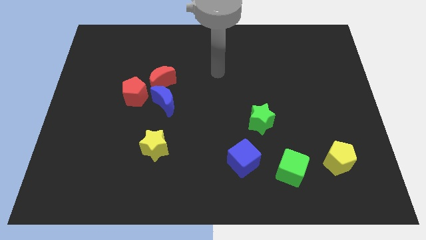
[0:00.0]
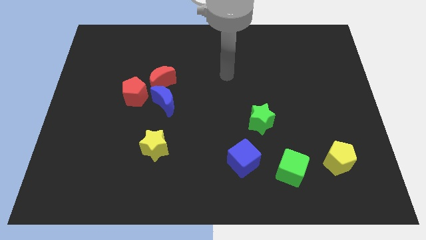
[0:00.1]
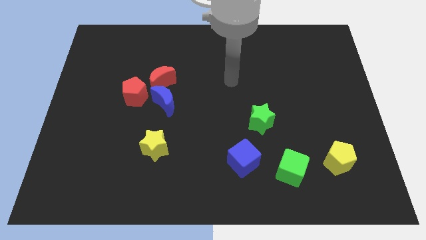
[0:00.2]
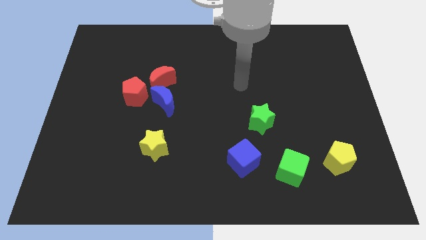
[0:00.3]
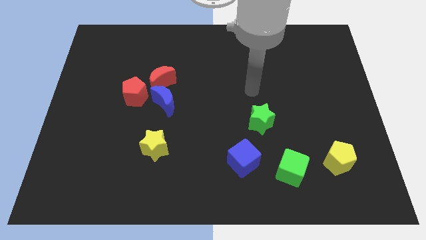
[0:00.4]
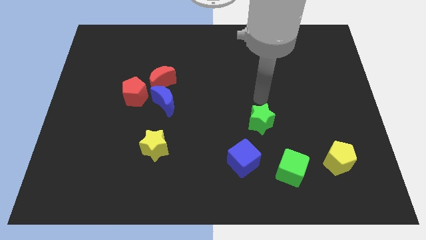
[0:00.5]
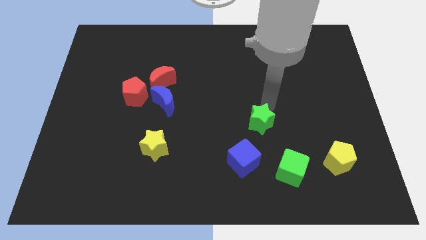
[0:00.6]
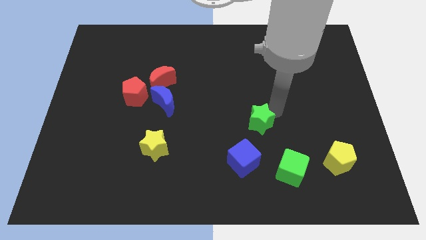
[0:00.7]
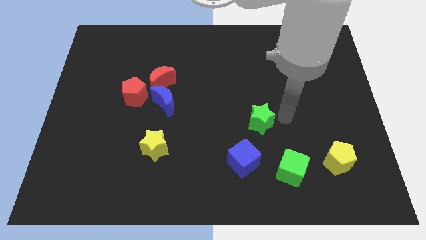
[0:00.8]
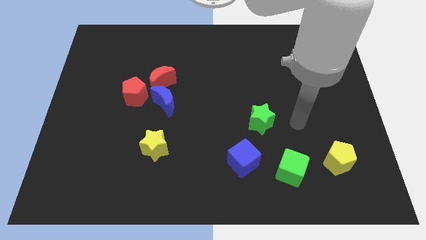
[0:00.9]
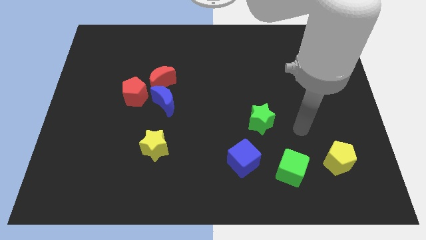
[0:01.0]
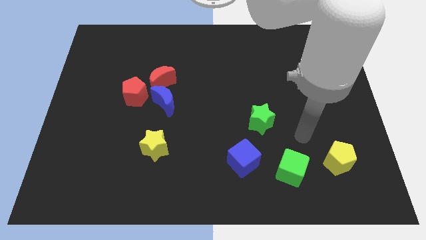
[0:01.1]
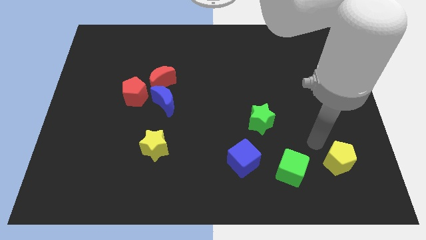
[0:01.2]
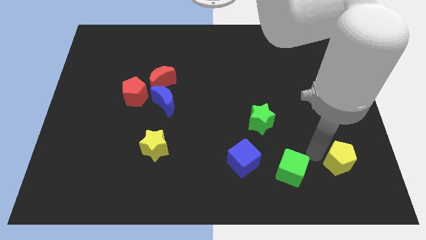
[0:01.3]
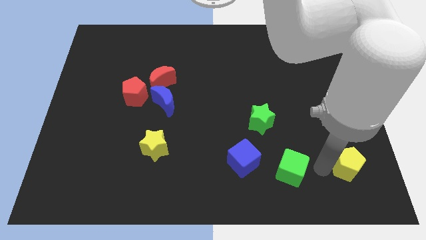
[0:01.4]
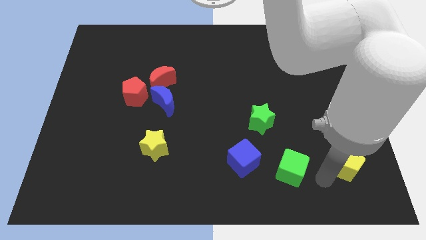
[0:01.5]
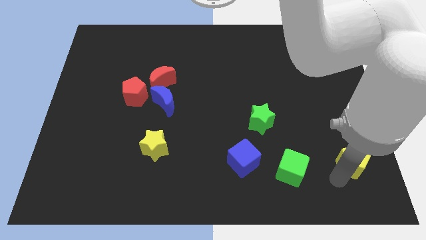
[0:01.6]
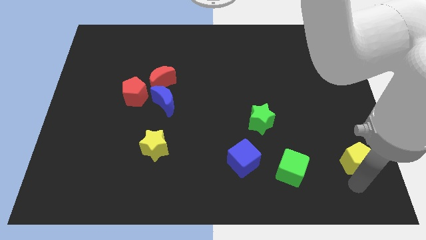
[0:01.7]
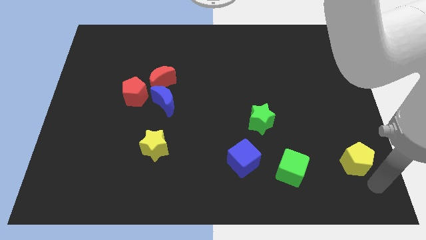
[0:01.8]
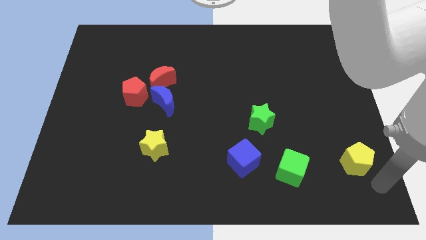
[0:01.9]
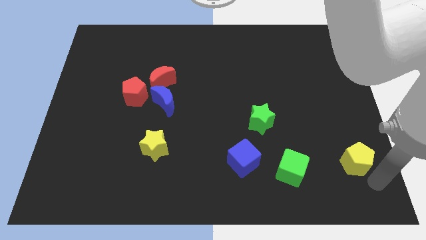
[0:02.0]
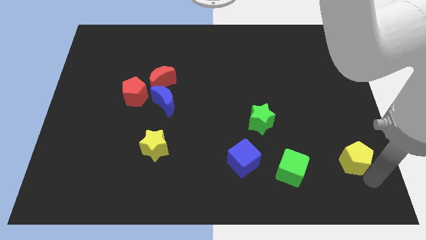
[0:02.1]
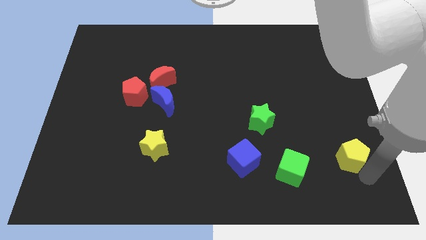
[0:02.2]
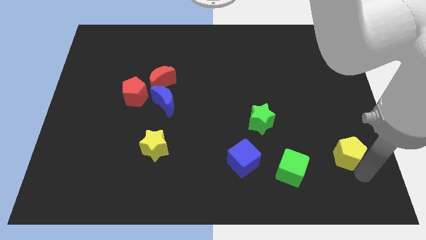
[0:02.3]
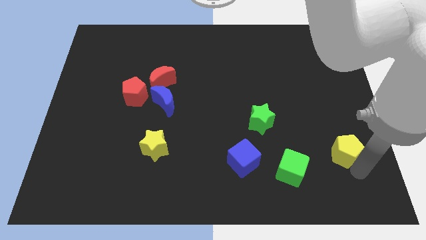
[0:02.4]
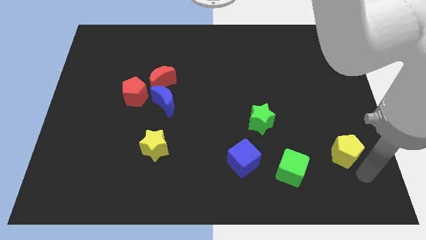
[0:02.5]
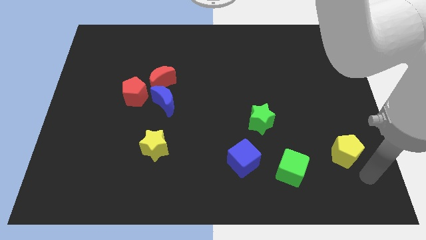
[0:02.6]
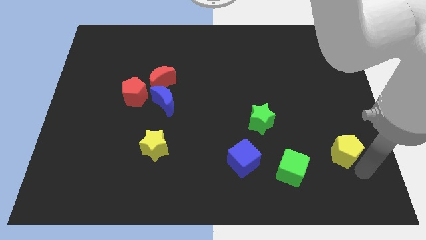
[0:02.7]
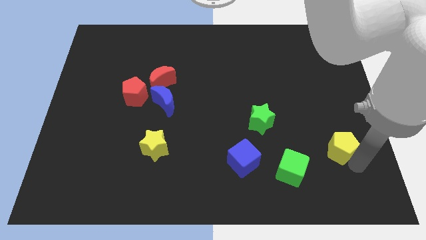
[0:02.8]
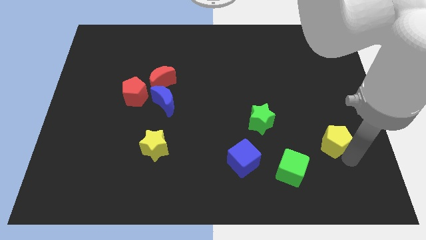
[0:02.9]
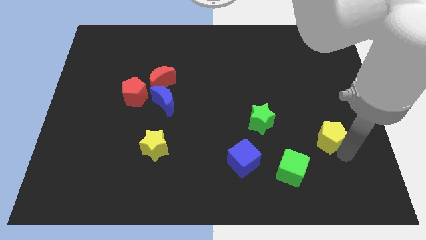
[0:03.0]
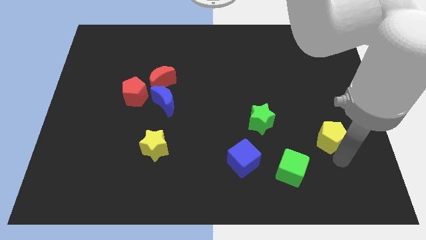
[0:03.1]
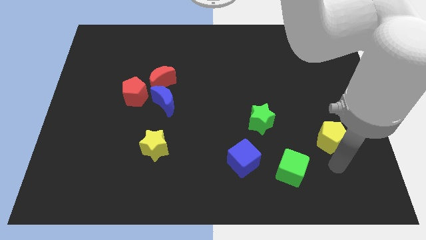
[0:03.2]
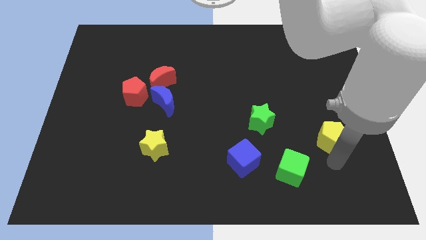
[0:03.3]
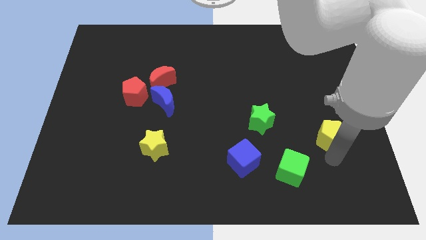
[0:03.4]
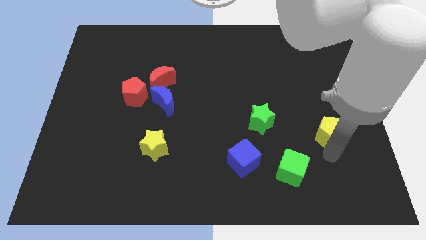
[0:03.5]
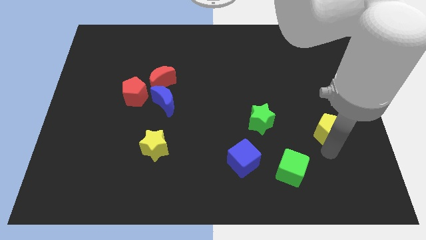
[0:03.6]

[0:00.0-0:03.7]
slide the yellow pentagon somewhat upwards

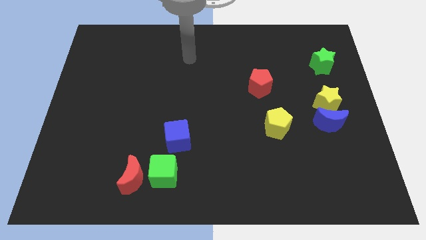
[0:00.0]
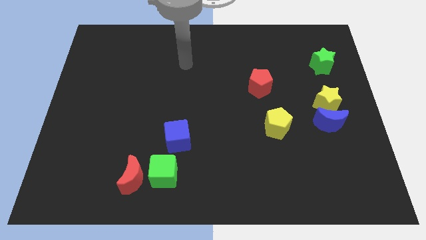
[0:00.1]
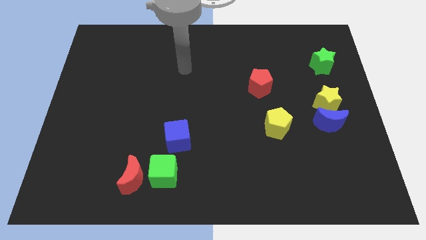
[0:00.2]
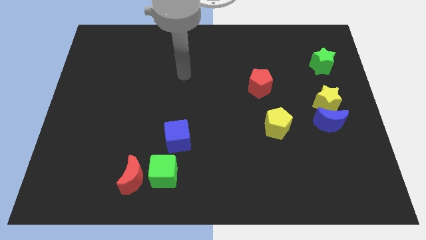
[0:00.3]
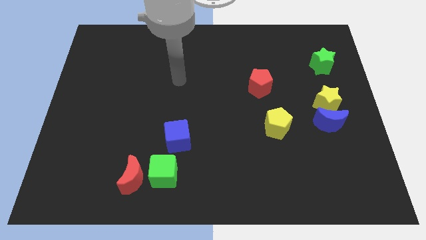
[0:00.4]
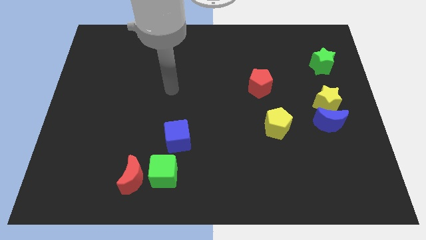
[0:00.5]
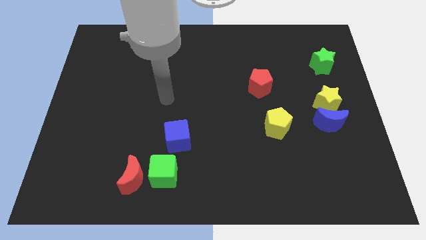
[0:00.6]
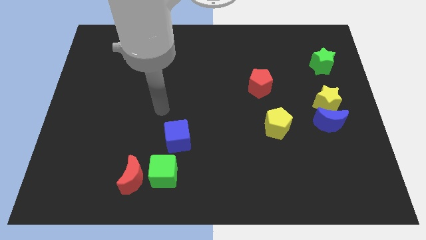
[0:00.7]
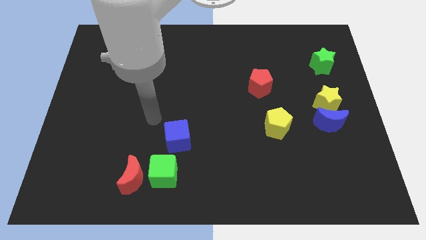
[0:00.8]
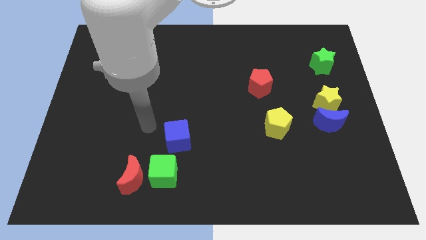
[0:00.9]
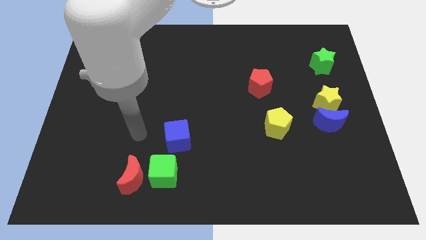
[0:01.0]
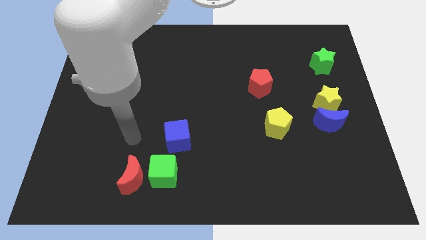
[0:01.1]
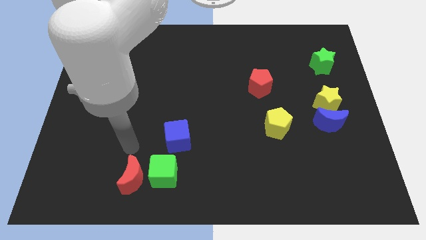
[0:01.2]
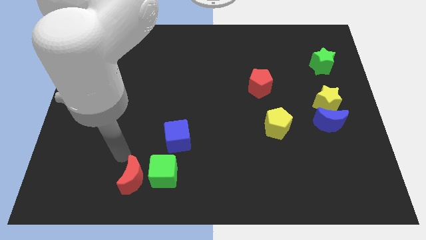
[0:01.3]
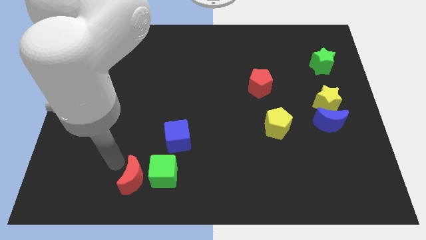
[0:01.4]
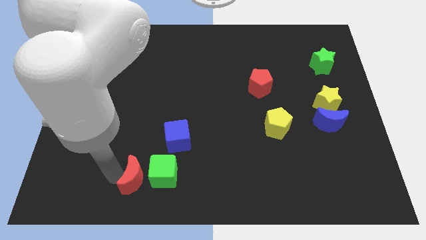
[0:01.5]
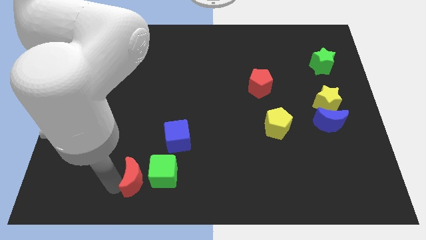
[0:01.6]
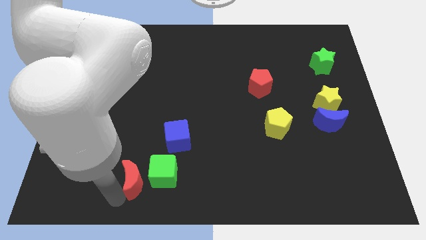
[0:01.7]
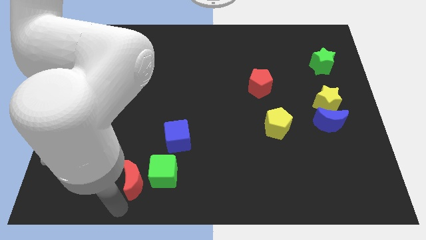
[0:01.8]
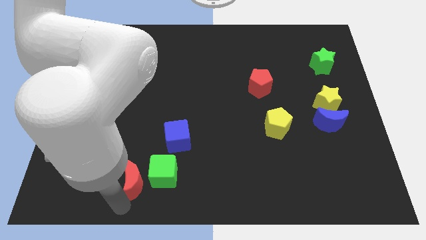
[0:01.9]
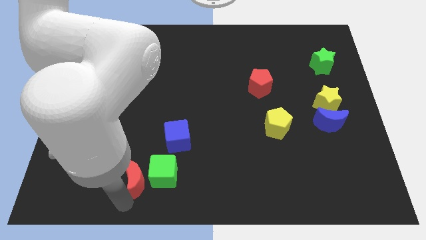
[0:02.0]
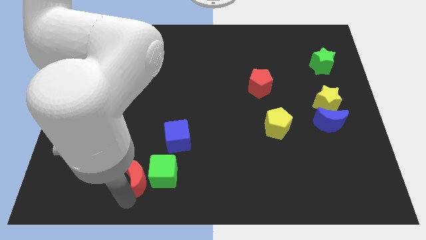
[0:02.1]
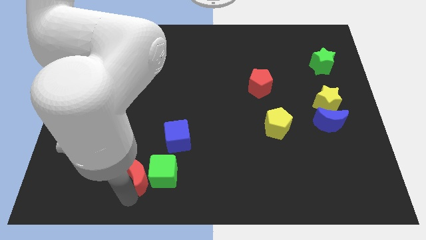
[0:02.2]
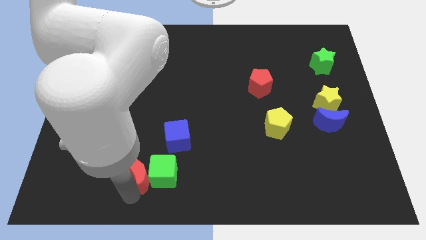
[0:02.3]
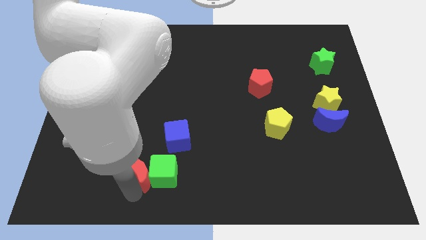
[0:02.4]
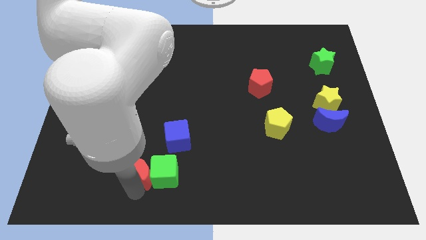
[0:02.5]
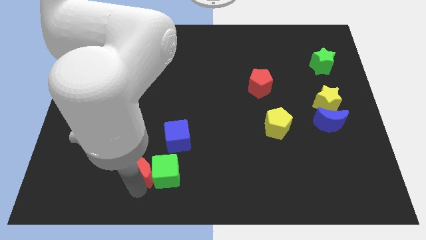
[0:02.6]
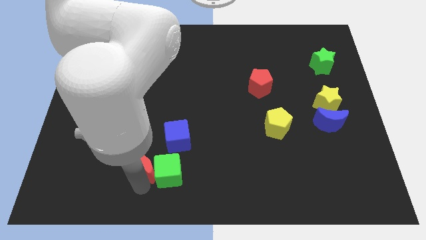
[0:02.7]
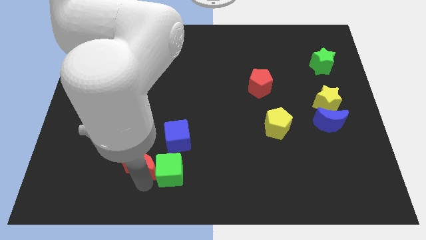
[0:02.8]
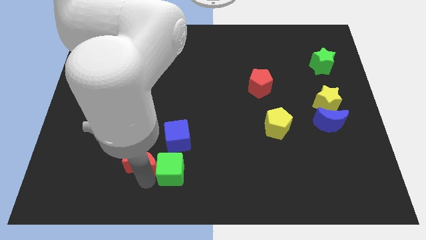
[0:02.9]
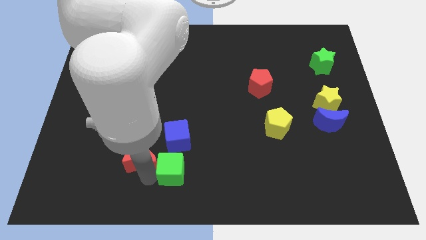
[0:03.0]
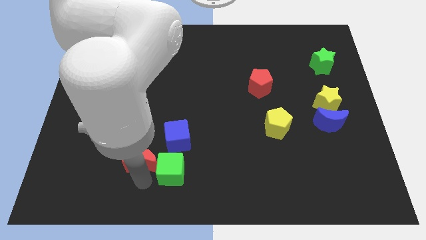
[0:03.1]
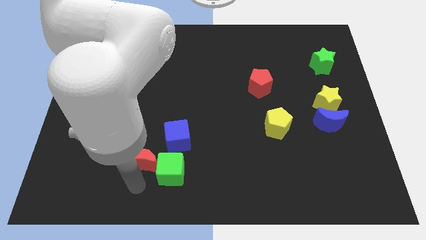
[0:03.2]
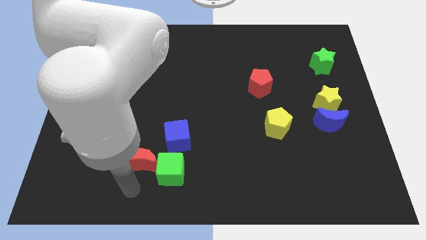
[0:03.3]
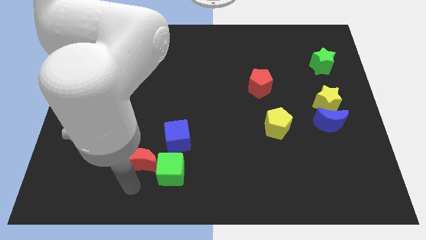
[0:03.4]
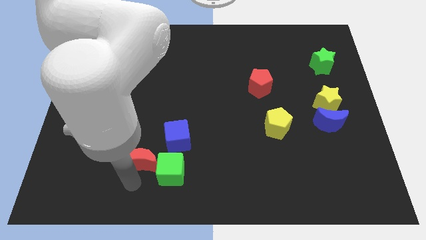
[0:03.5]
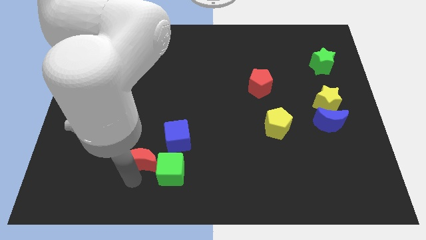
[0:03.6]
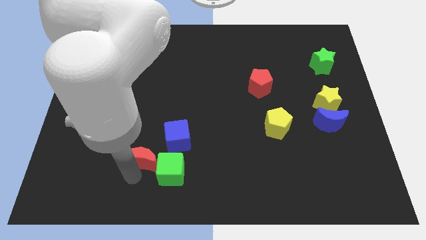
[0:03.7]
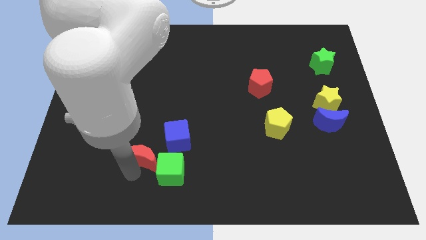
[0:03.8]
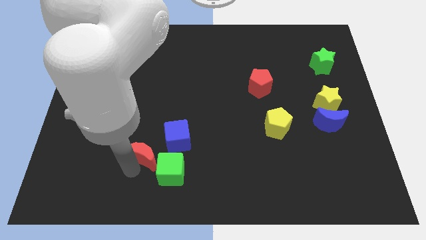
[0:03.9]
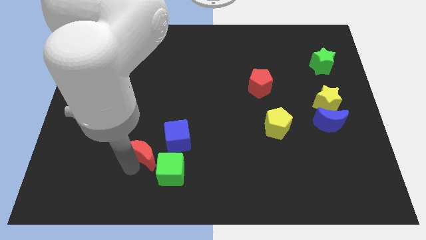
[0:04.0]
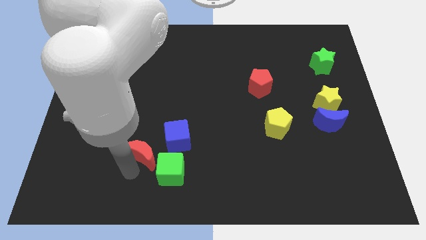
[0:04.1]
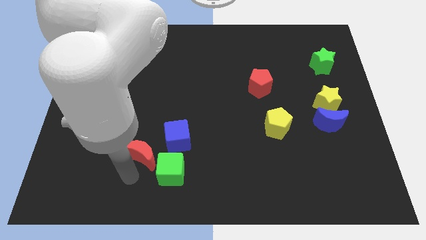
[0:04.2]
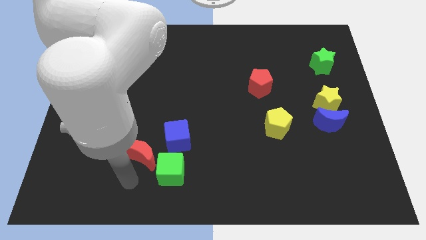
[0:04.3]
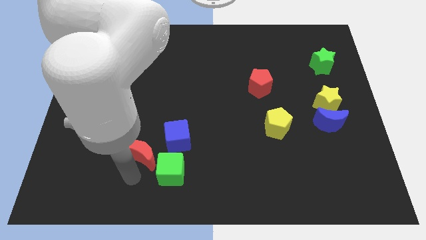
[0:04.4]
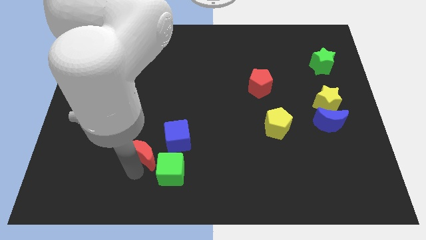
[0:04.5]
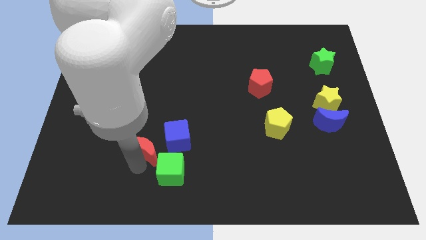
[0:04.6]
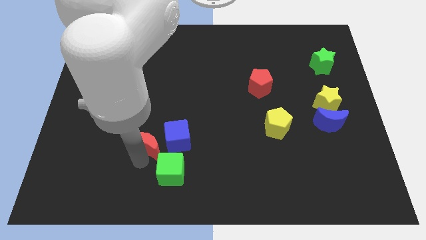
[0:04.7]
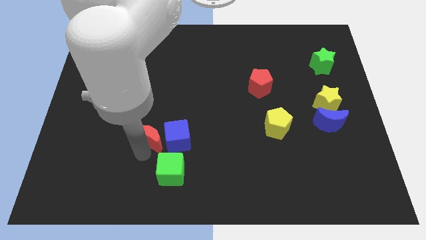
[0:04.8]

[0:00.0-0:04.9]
move the red moon upwards and then right somewhat
